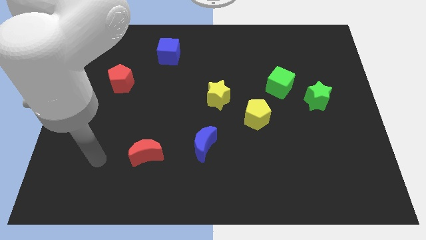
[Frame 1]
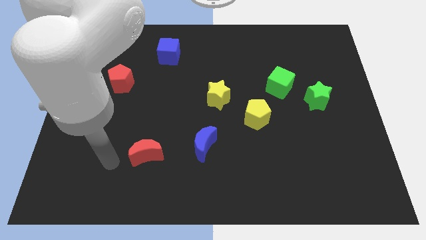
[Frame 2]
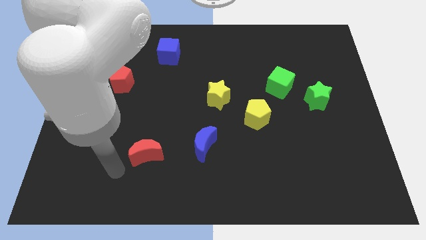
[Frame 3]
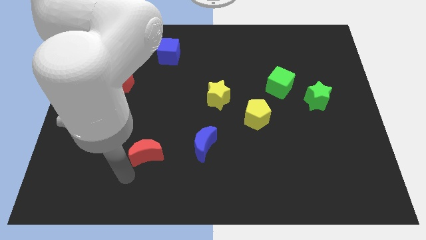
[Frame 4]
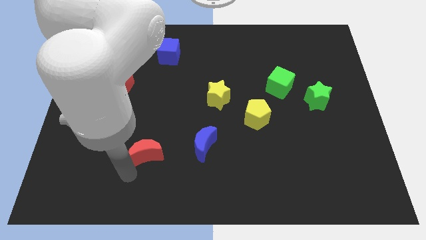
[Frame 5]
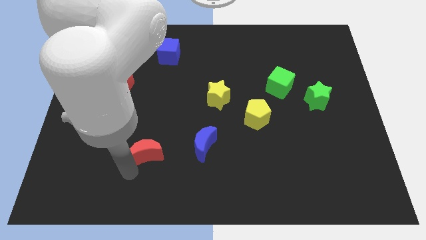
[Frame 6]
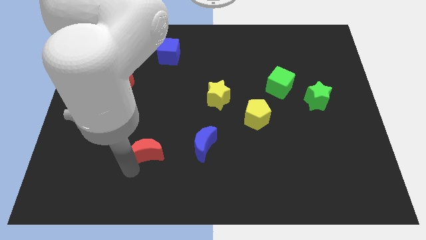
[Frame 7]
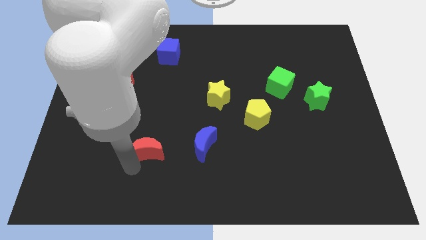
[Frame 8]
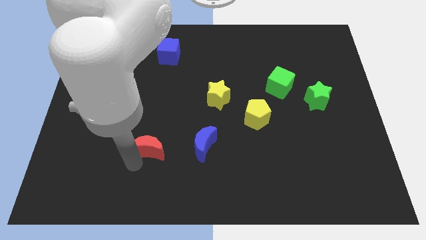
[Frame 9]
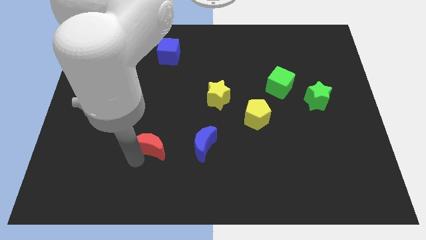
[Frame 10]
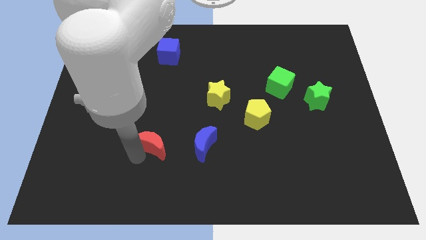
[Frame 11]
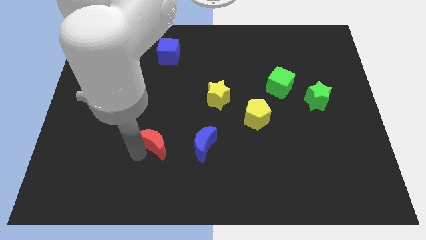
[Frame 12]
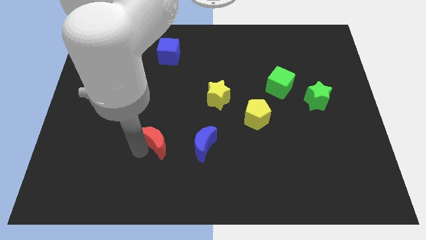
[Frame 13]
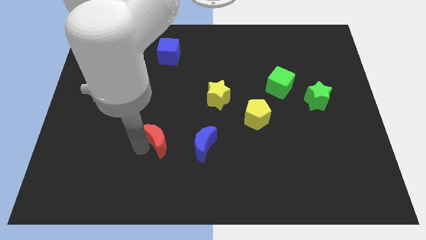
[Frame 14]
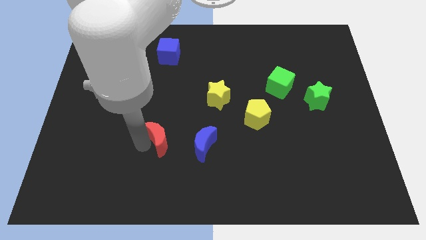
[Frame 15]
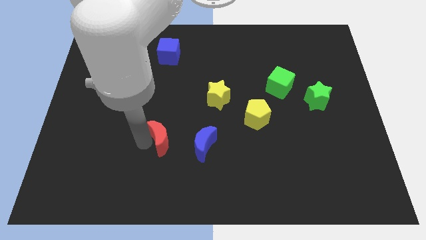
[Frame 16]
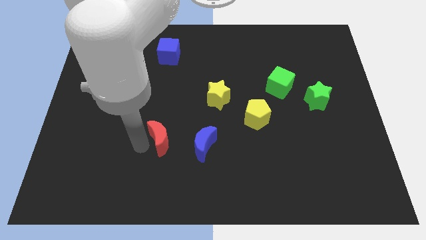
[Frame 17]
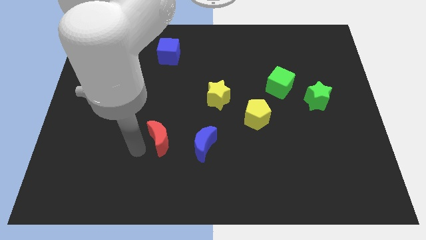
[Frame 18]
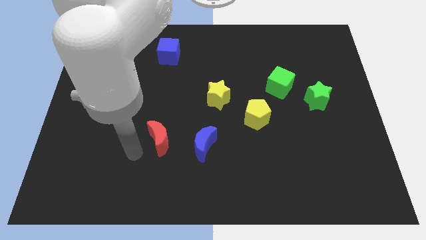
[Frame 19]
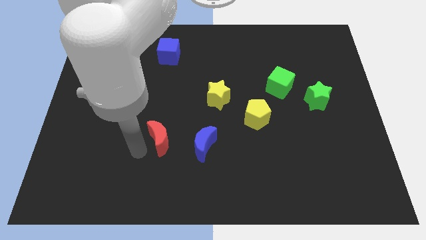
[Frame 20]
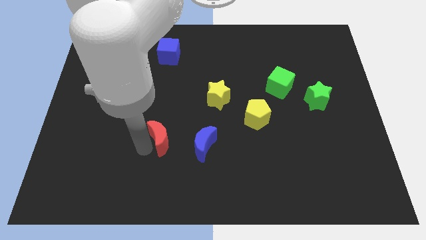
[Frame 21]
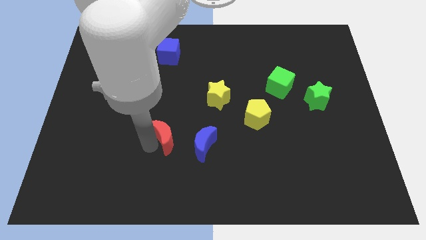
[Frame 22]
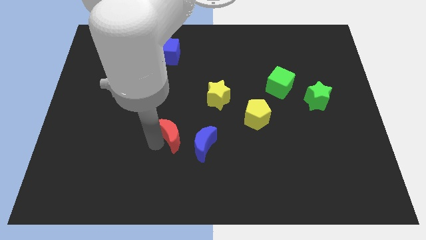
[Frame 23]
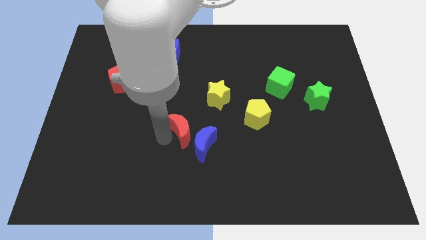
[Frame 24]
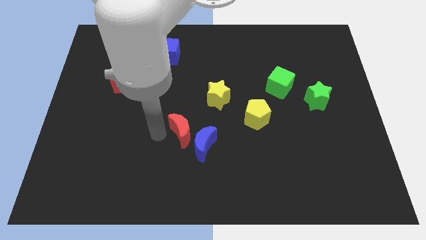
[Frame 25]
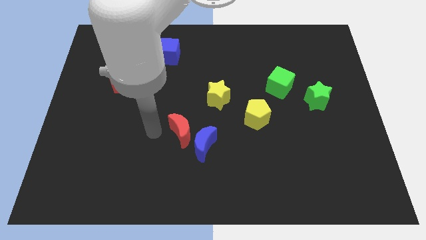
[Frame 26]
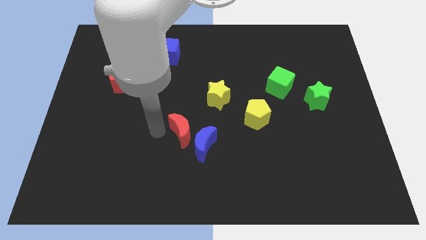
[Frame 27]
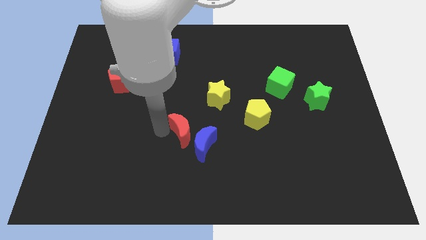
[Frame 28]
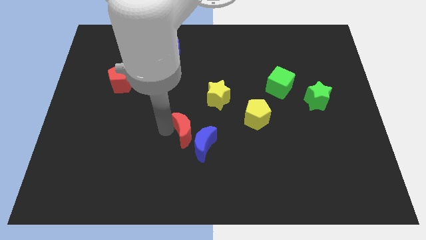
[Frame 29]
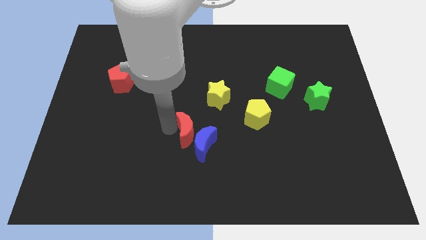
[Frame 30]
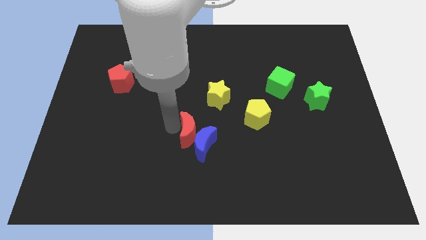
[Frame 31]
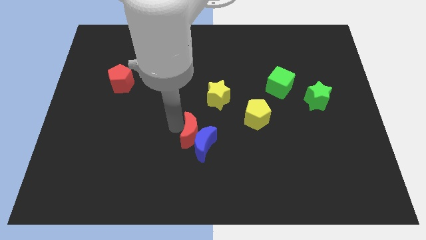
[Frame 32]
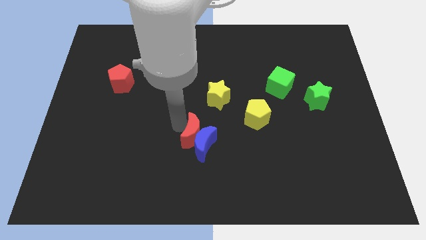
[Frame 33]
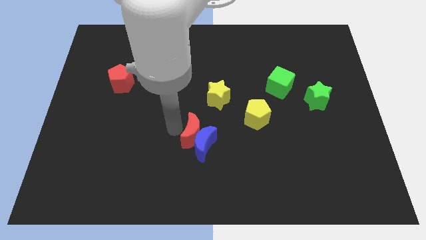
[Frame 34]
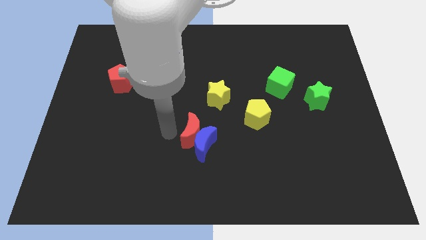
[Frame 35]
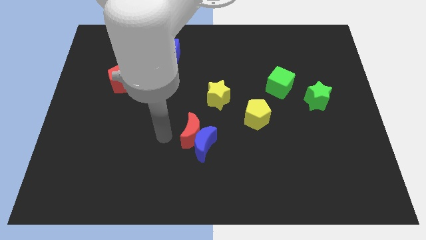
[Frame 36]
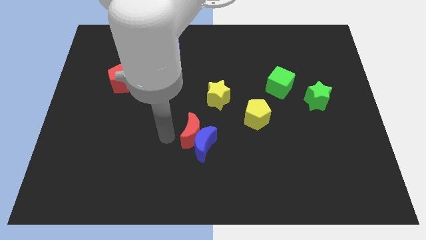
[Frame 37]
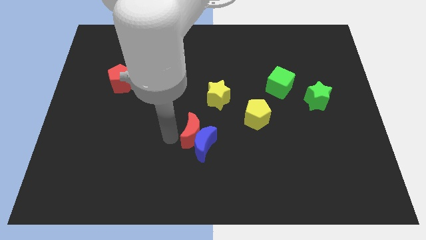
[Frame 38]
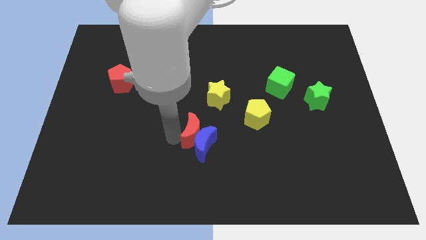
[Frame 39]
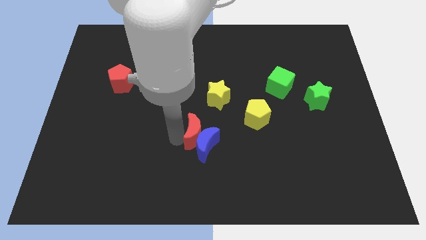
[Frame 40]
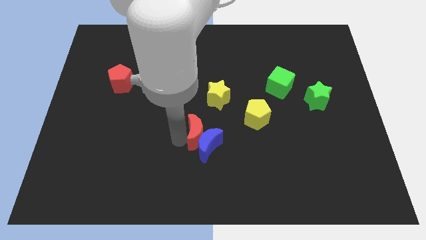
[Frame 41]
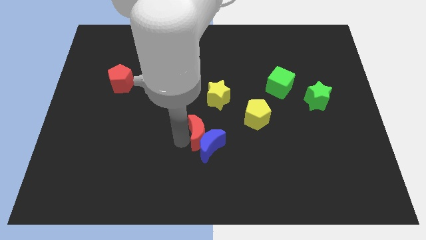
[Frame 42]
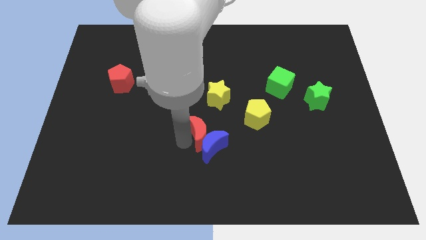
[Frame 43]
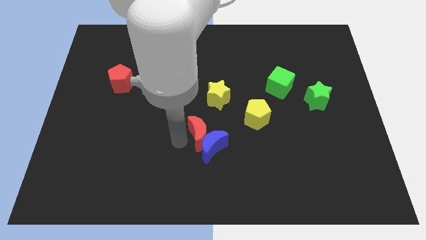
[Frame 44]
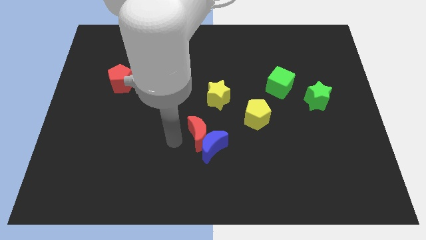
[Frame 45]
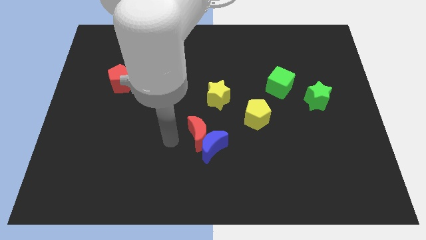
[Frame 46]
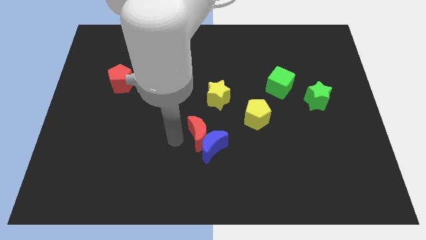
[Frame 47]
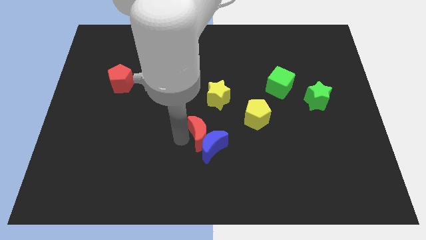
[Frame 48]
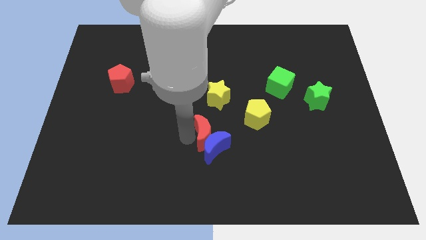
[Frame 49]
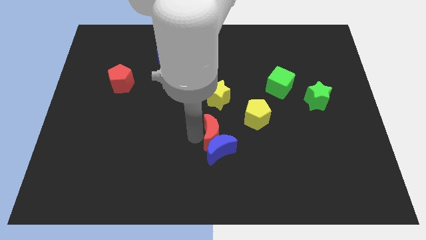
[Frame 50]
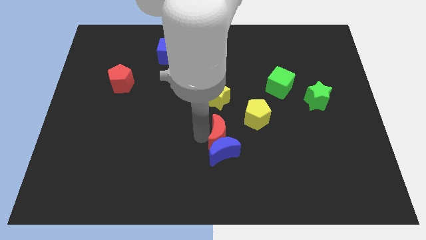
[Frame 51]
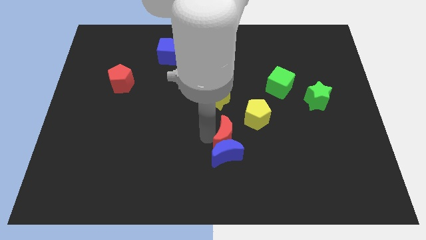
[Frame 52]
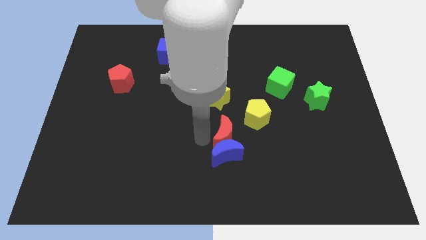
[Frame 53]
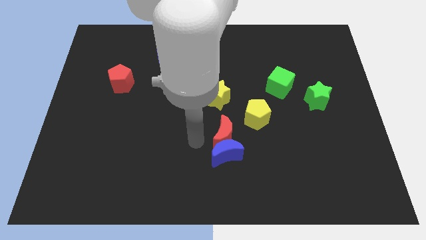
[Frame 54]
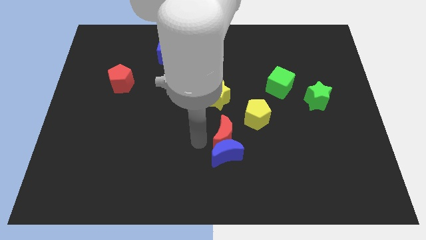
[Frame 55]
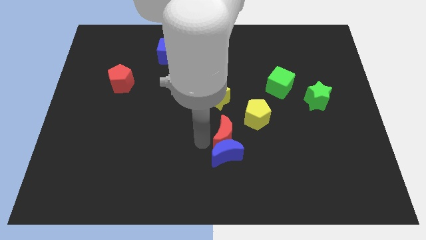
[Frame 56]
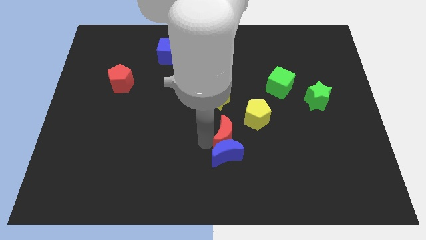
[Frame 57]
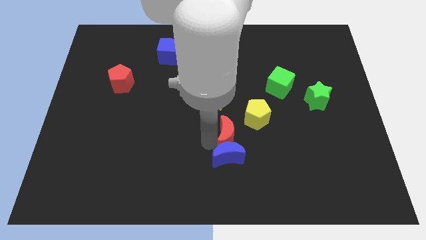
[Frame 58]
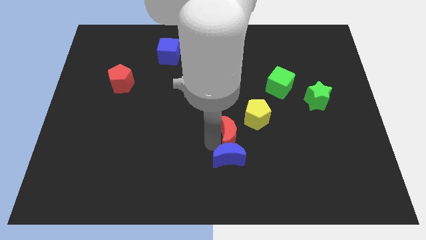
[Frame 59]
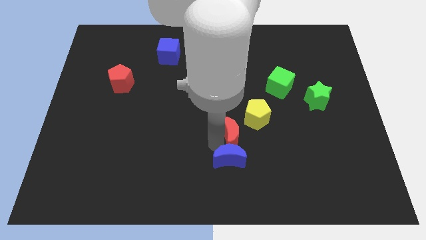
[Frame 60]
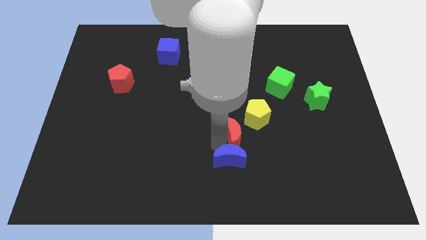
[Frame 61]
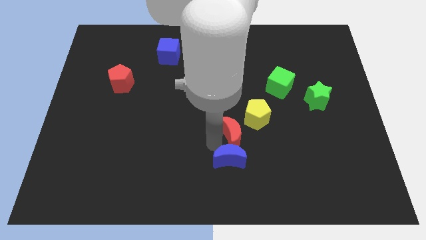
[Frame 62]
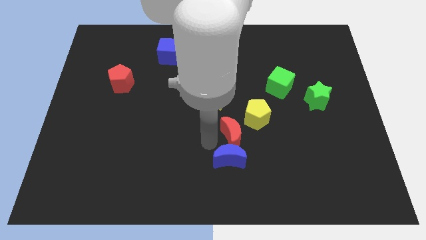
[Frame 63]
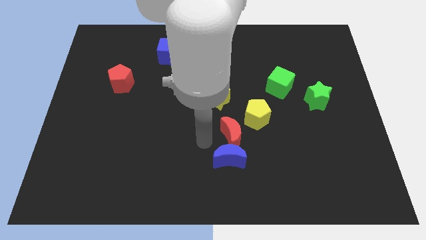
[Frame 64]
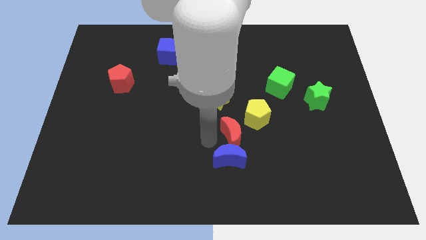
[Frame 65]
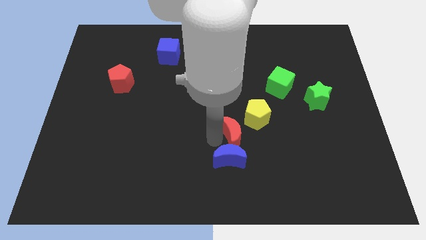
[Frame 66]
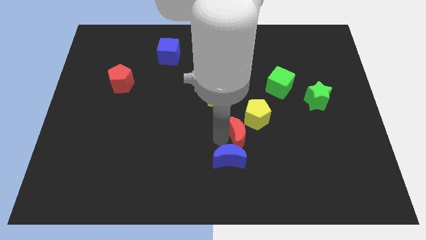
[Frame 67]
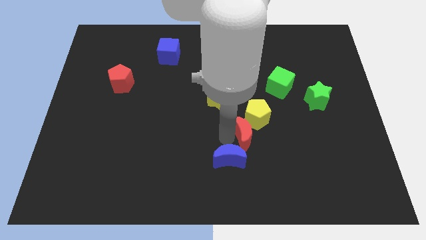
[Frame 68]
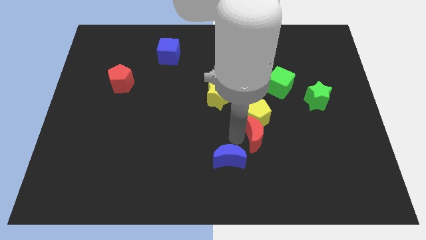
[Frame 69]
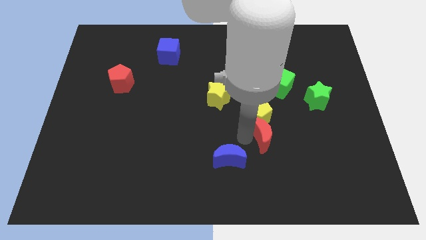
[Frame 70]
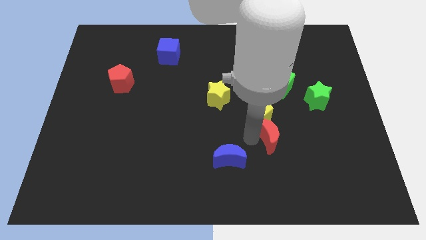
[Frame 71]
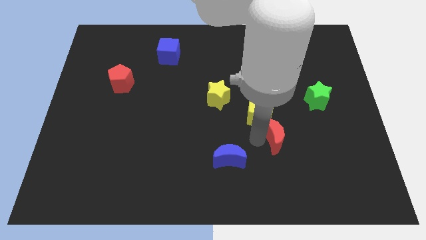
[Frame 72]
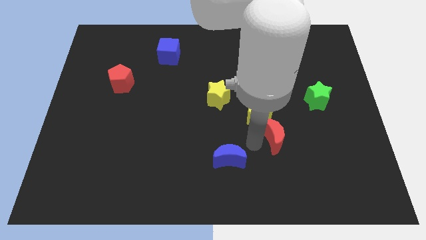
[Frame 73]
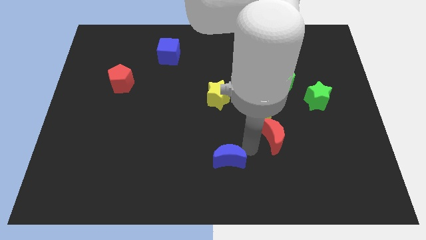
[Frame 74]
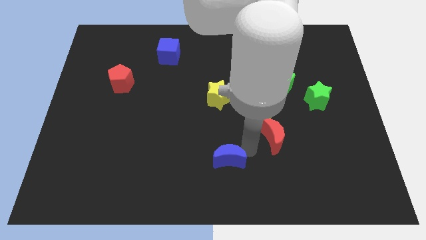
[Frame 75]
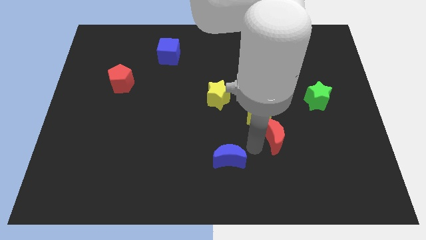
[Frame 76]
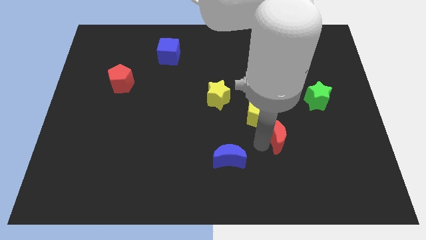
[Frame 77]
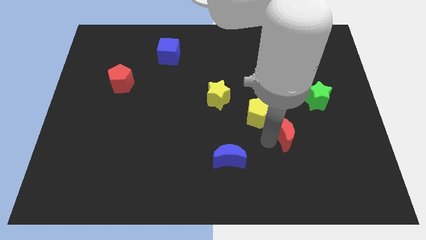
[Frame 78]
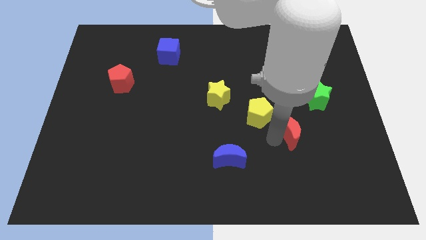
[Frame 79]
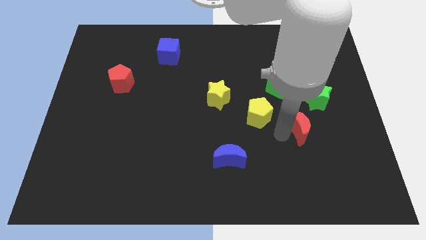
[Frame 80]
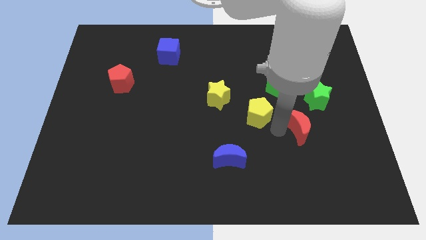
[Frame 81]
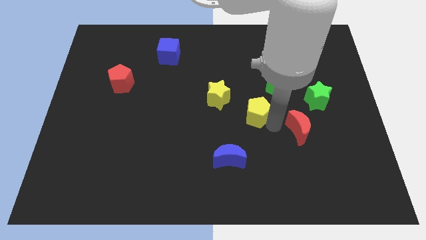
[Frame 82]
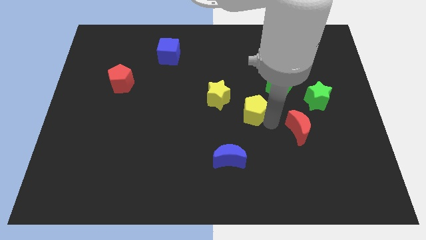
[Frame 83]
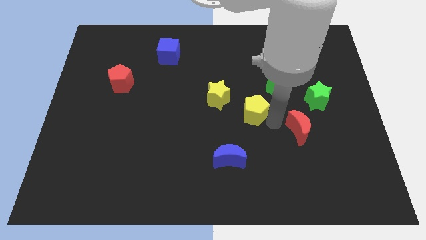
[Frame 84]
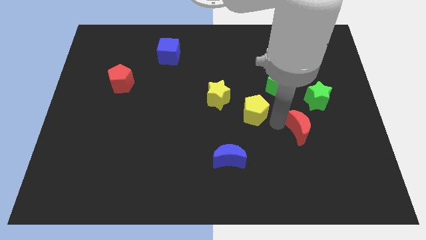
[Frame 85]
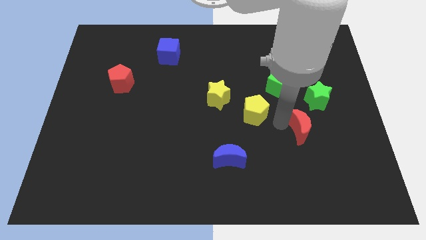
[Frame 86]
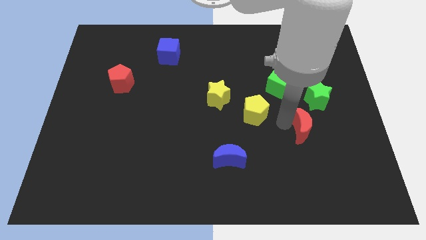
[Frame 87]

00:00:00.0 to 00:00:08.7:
put the red moon below the green star
